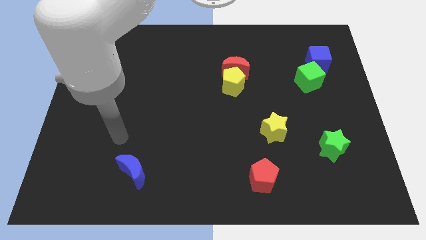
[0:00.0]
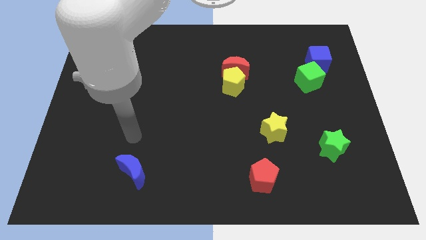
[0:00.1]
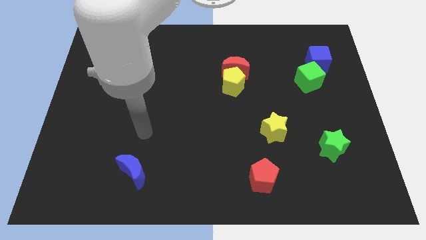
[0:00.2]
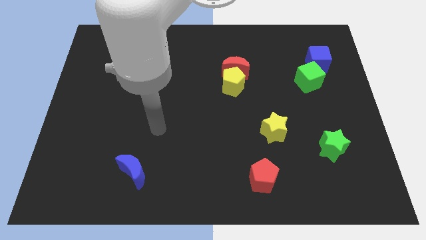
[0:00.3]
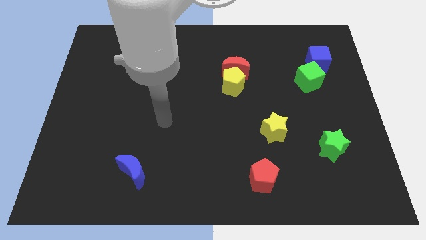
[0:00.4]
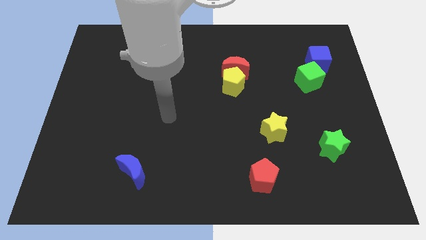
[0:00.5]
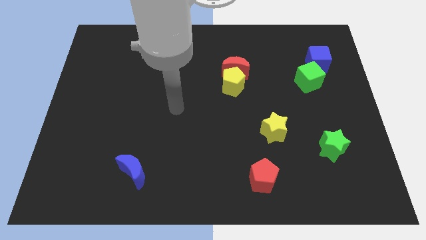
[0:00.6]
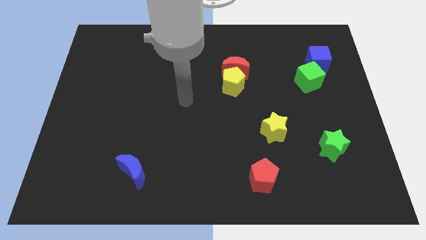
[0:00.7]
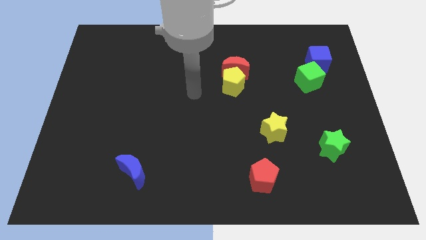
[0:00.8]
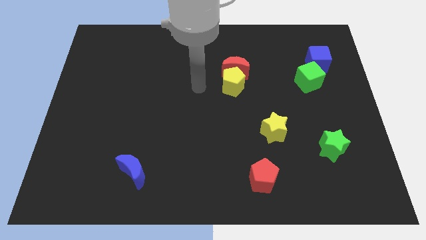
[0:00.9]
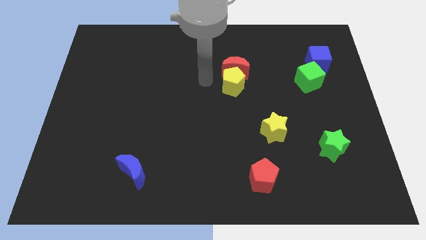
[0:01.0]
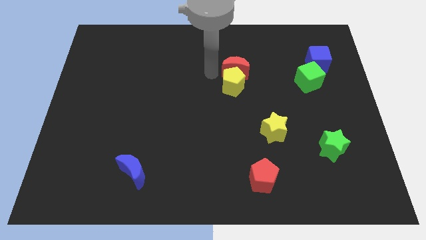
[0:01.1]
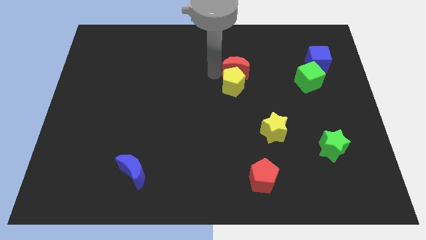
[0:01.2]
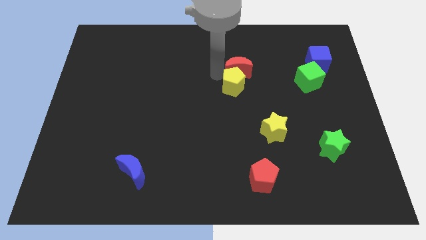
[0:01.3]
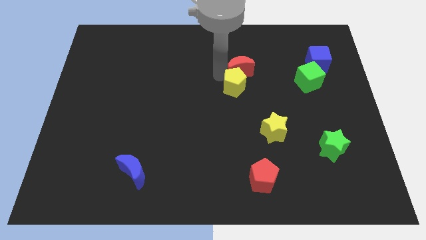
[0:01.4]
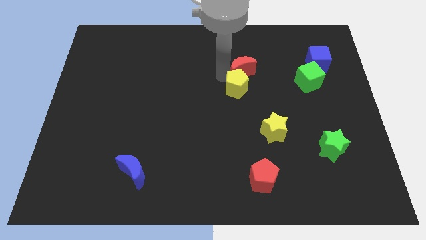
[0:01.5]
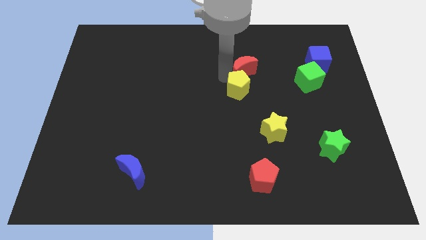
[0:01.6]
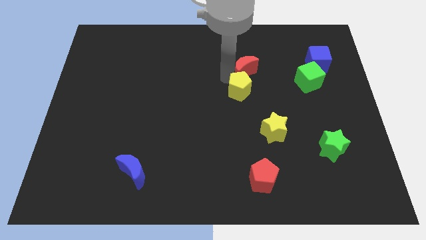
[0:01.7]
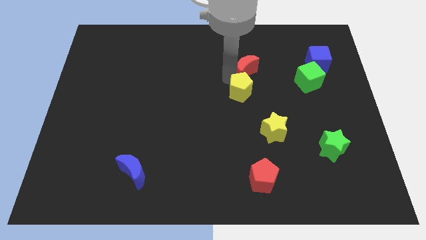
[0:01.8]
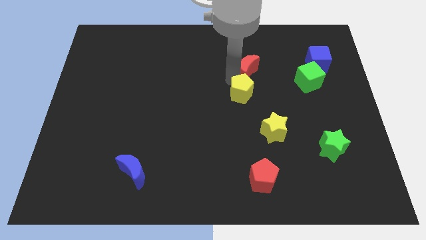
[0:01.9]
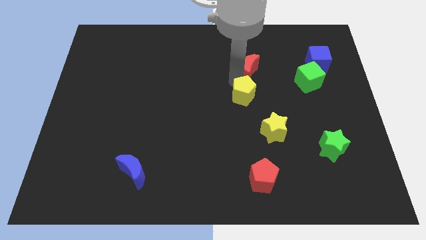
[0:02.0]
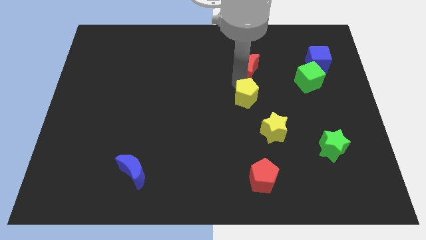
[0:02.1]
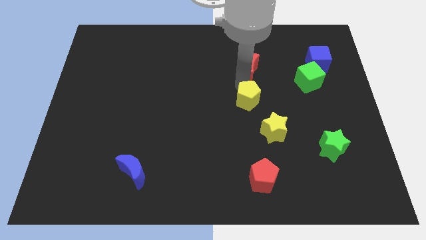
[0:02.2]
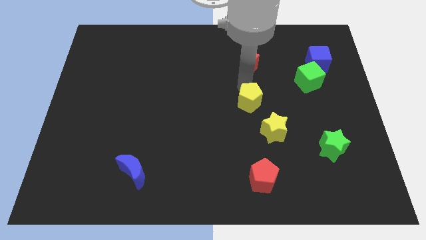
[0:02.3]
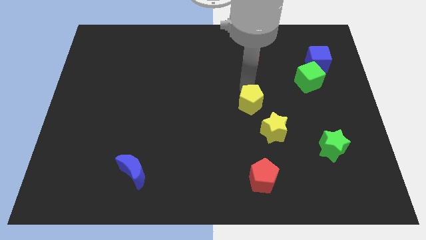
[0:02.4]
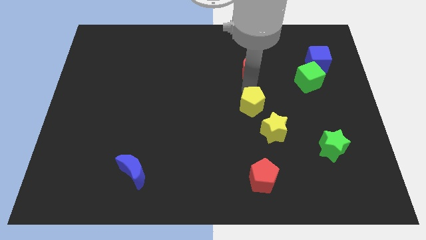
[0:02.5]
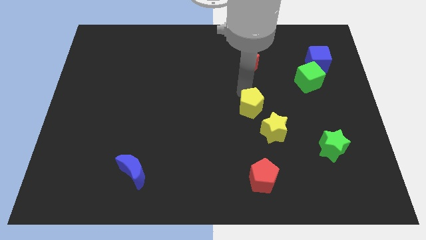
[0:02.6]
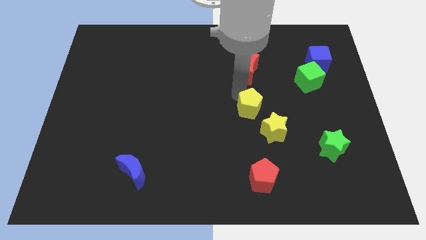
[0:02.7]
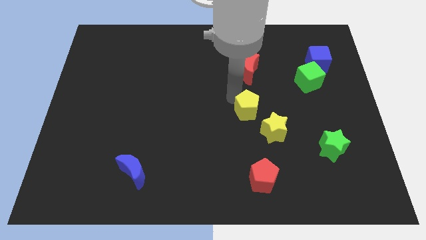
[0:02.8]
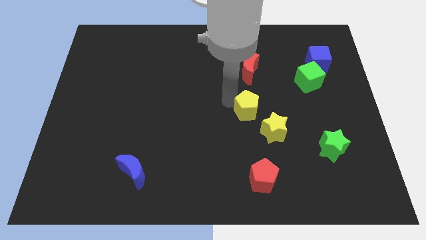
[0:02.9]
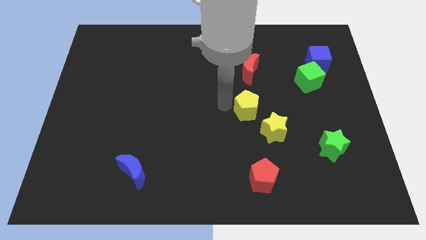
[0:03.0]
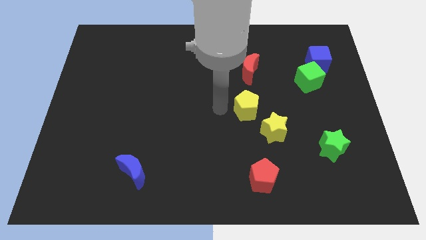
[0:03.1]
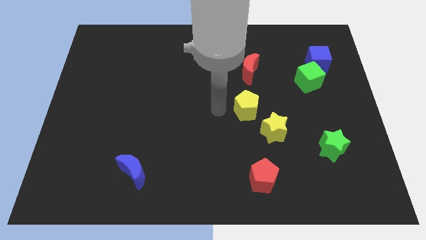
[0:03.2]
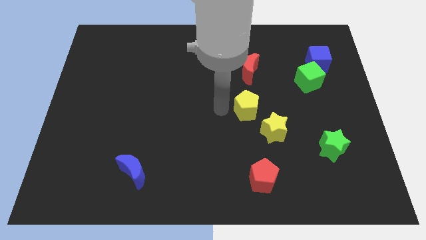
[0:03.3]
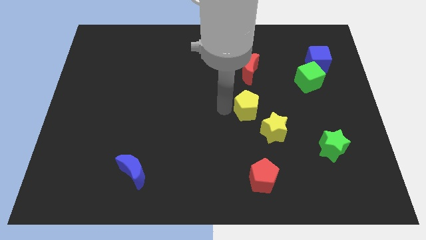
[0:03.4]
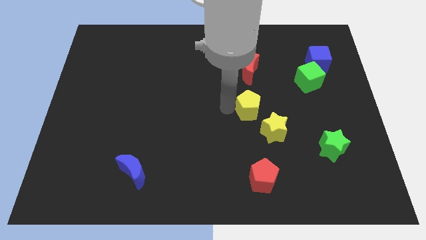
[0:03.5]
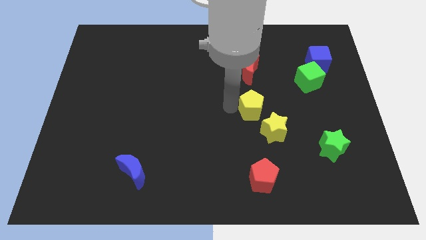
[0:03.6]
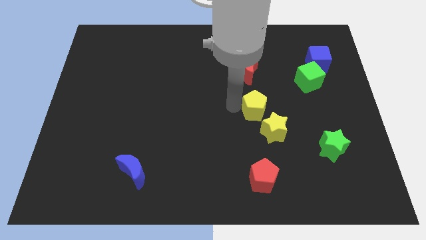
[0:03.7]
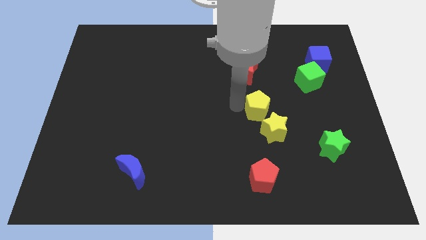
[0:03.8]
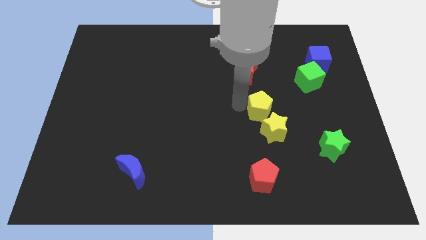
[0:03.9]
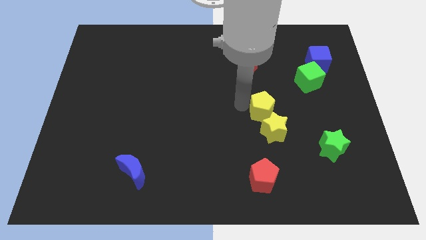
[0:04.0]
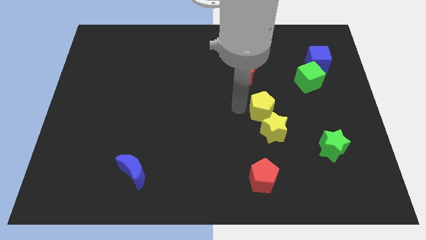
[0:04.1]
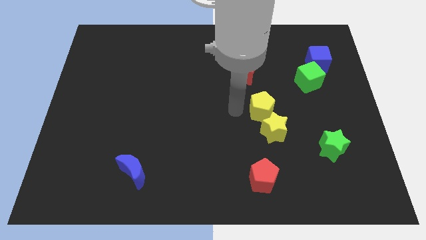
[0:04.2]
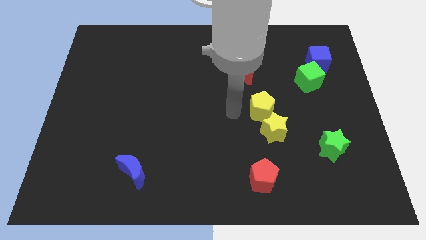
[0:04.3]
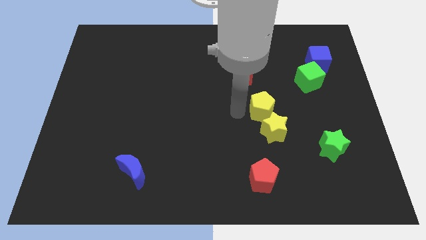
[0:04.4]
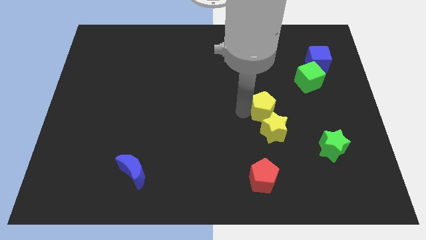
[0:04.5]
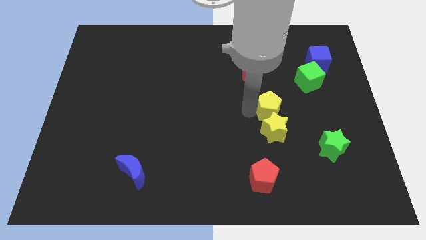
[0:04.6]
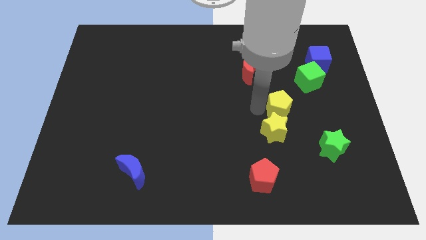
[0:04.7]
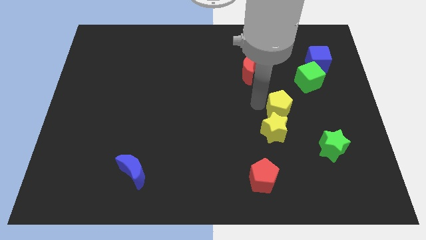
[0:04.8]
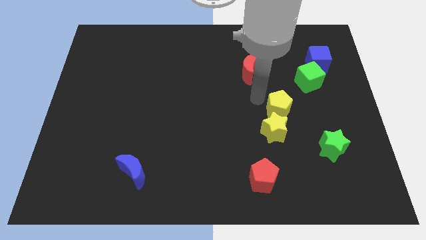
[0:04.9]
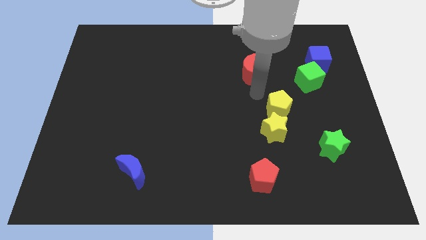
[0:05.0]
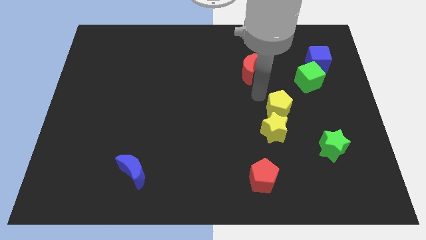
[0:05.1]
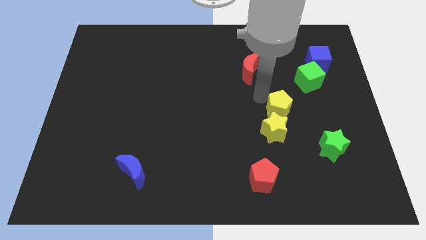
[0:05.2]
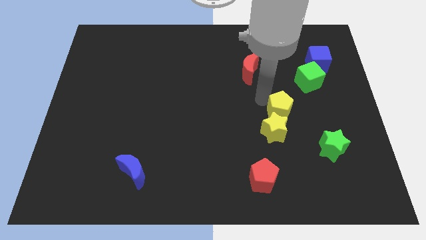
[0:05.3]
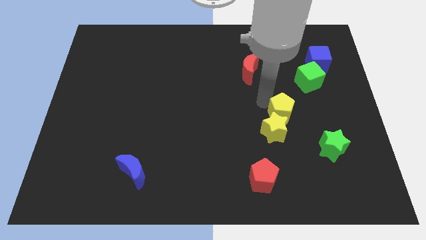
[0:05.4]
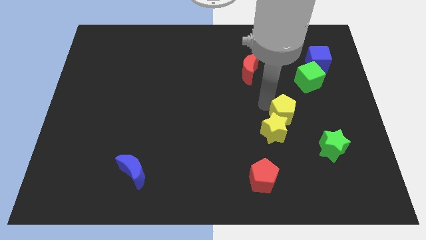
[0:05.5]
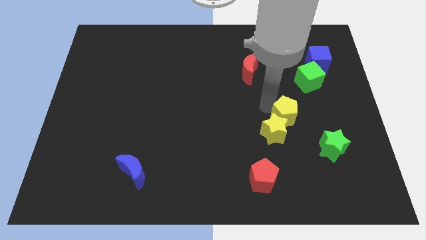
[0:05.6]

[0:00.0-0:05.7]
move the yellow pentagon to the top left of the green star

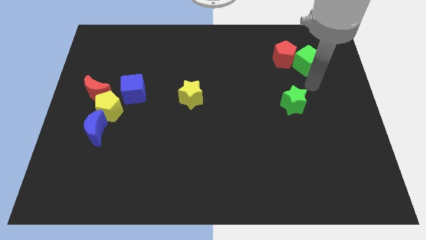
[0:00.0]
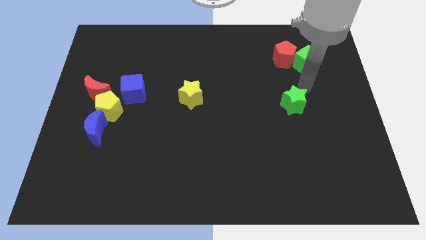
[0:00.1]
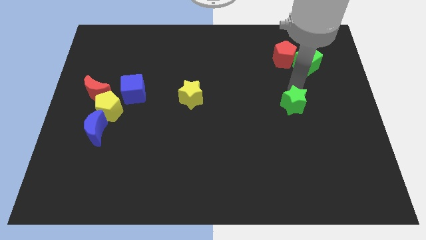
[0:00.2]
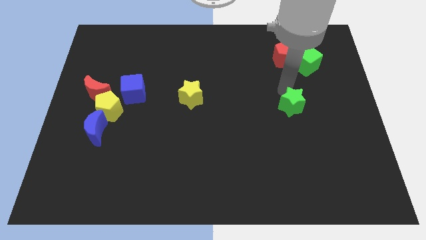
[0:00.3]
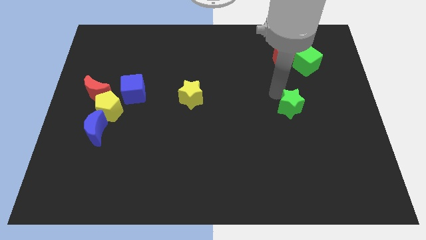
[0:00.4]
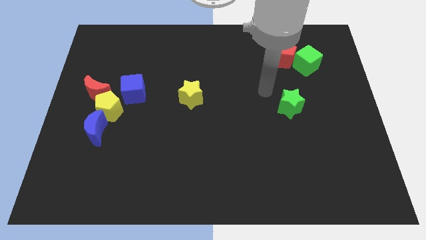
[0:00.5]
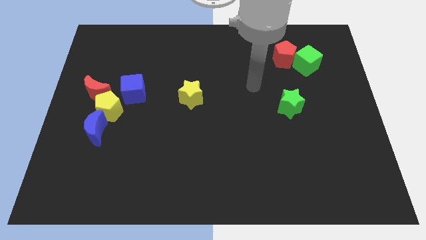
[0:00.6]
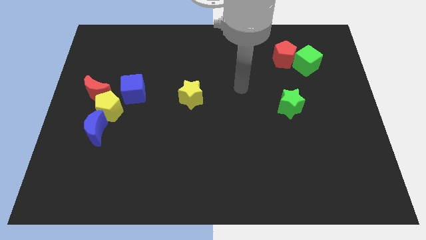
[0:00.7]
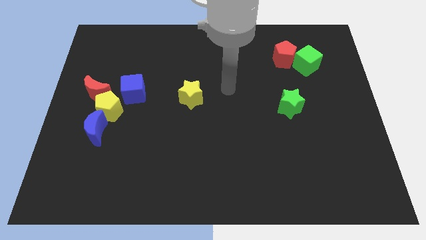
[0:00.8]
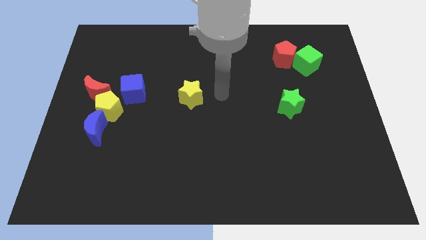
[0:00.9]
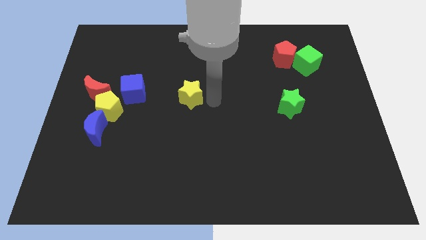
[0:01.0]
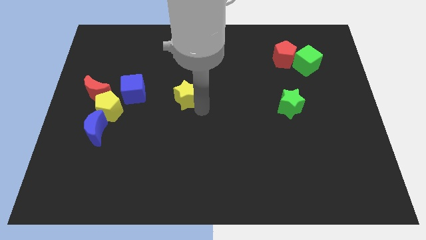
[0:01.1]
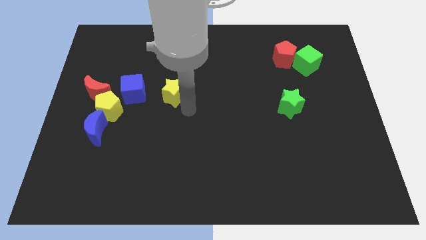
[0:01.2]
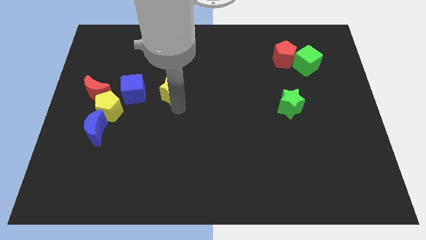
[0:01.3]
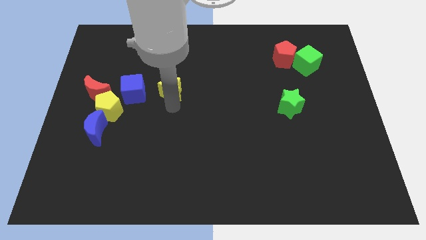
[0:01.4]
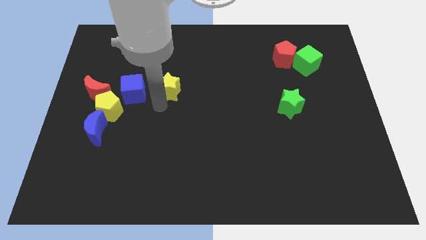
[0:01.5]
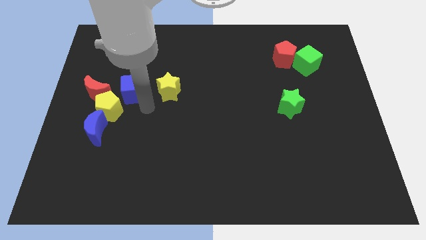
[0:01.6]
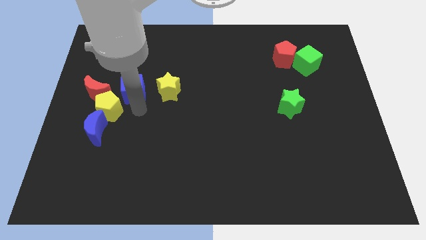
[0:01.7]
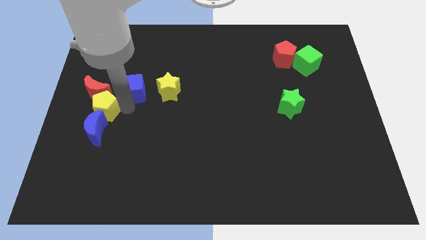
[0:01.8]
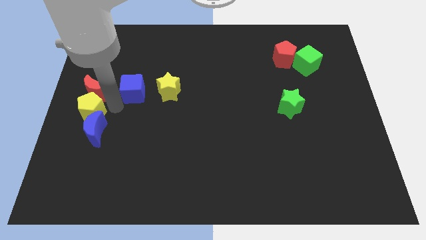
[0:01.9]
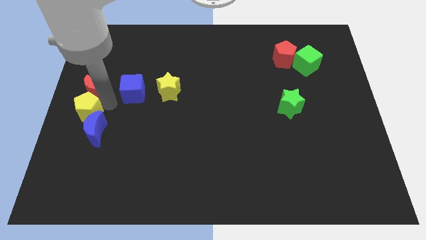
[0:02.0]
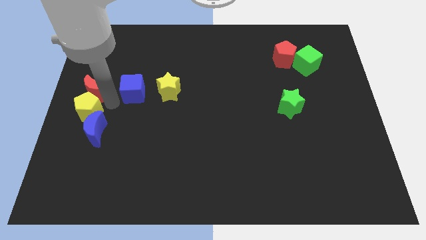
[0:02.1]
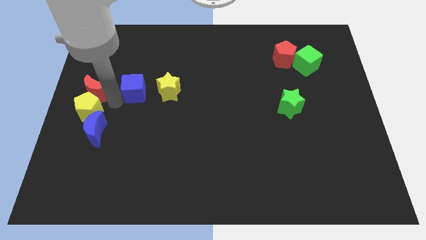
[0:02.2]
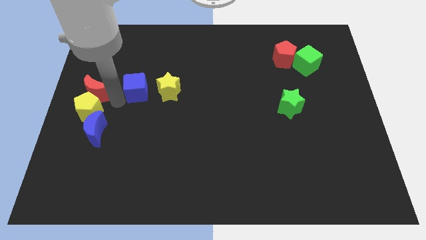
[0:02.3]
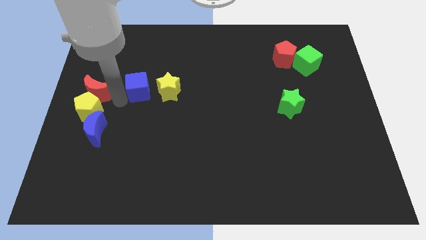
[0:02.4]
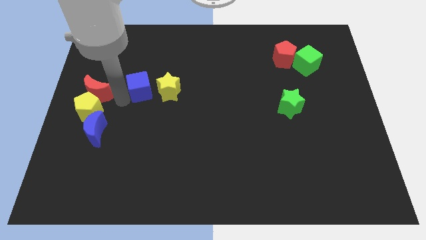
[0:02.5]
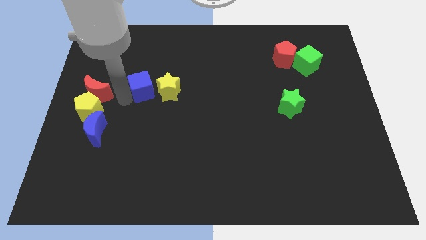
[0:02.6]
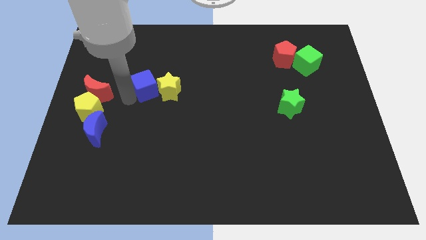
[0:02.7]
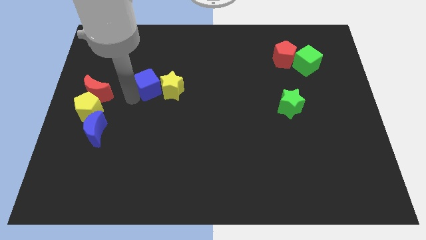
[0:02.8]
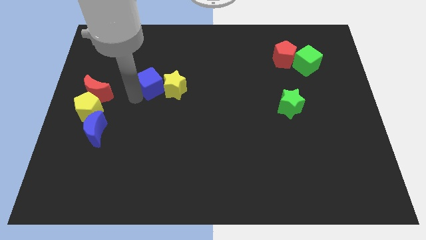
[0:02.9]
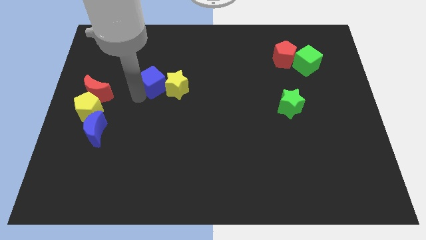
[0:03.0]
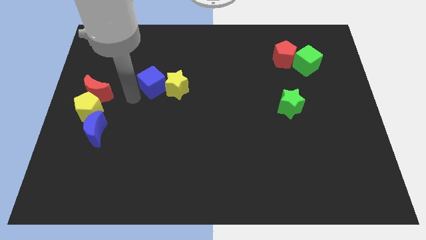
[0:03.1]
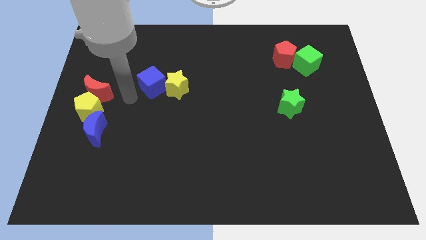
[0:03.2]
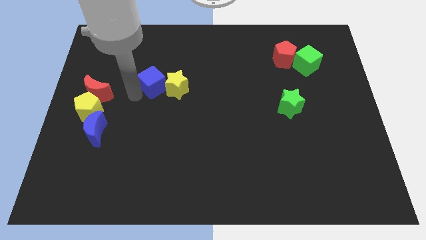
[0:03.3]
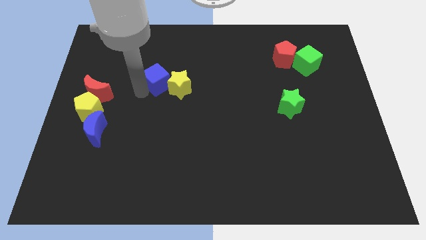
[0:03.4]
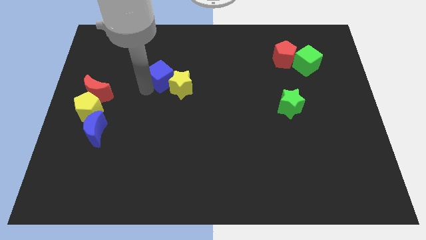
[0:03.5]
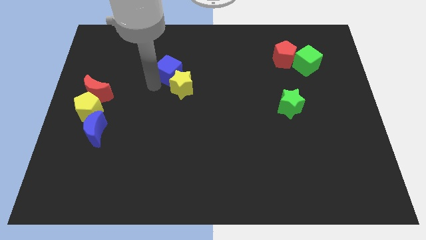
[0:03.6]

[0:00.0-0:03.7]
push the blue cube above the yellow star
